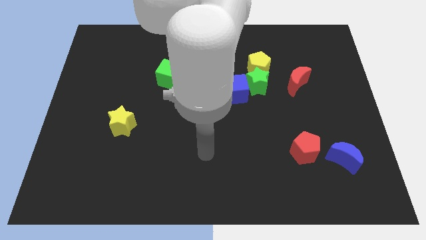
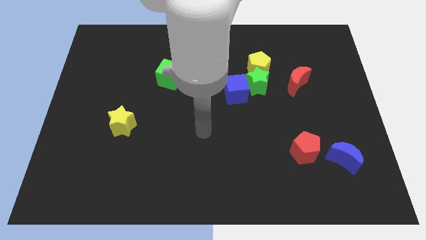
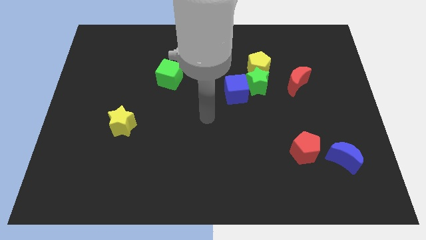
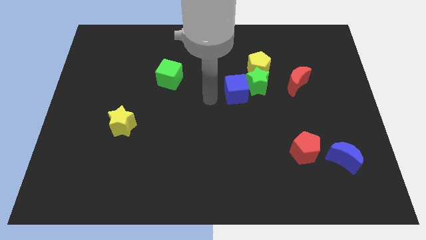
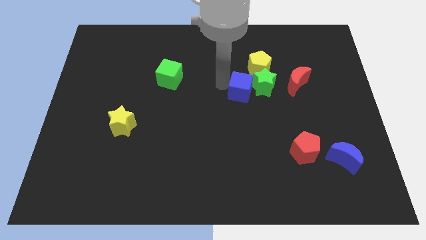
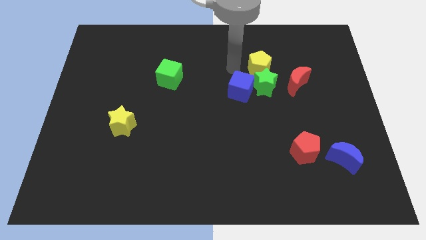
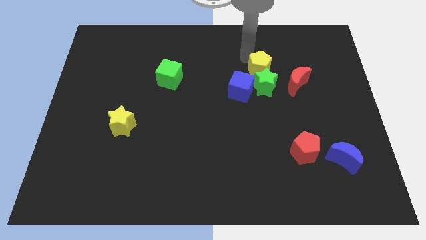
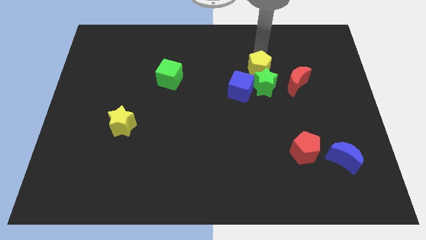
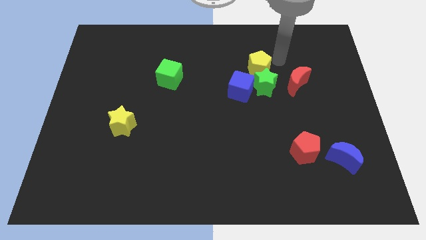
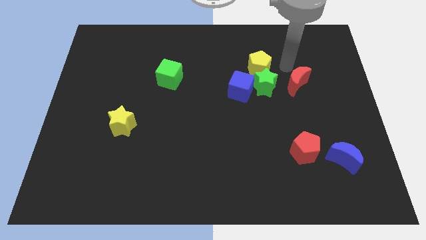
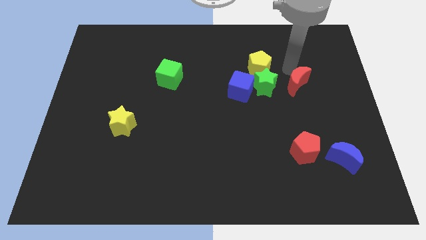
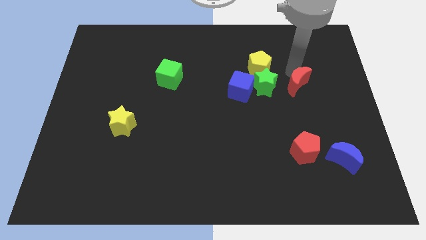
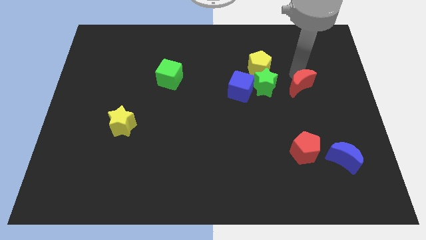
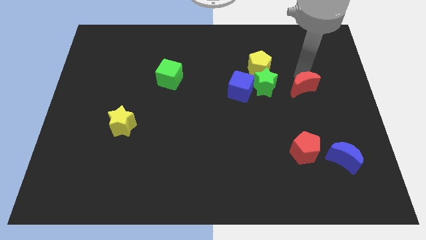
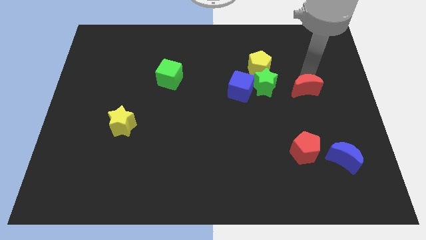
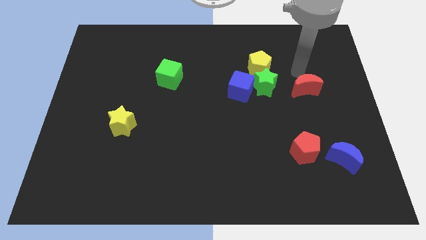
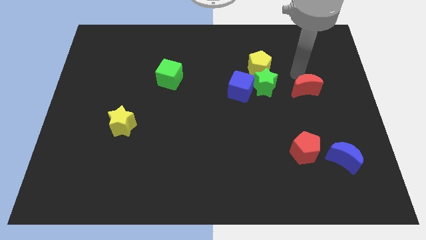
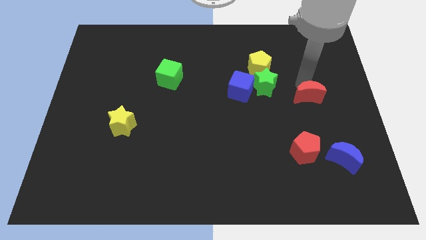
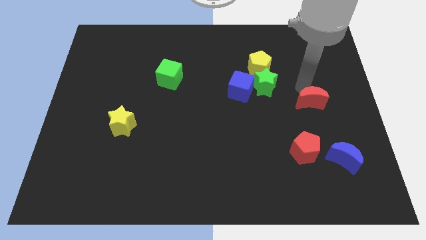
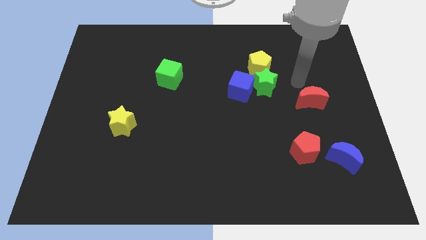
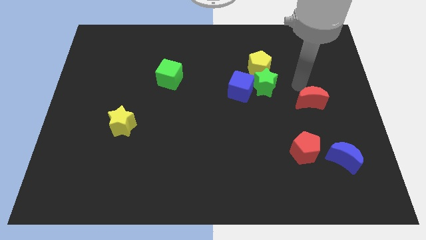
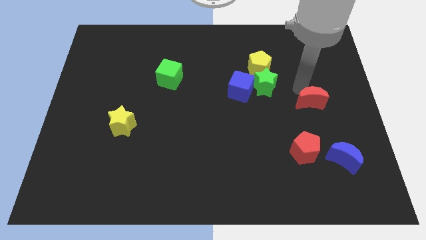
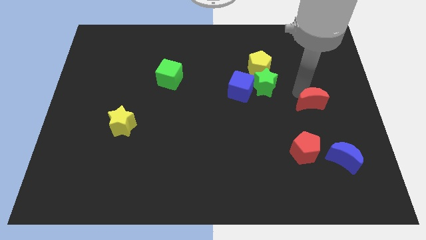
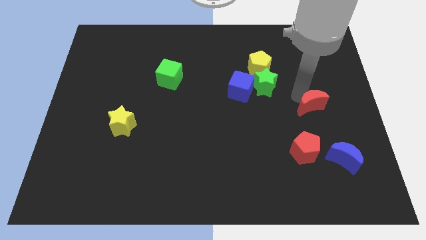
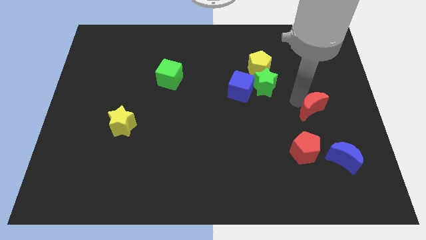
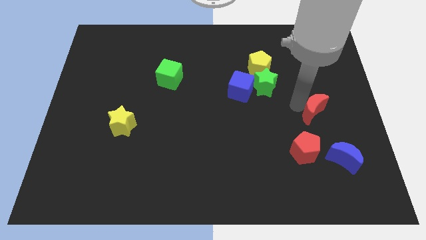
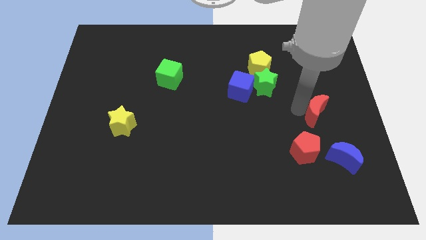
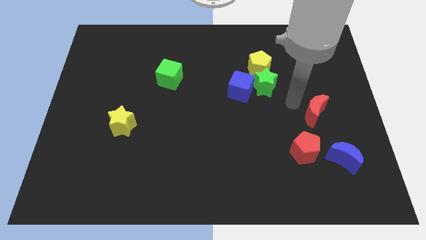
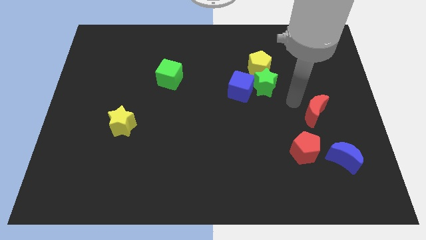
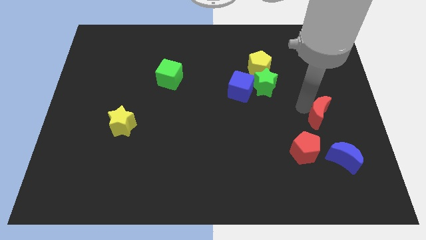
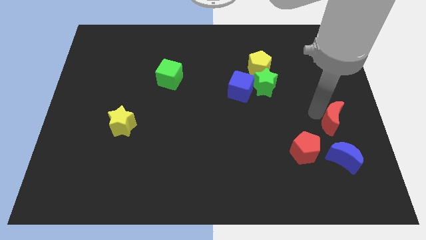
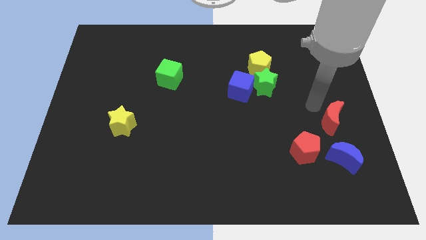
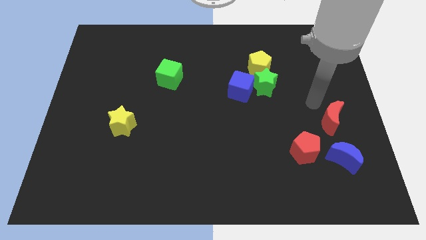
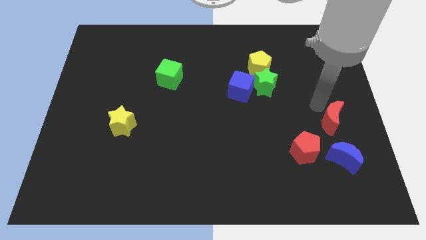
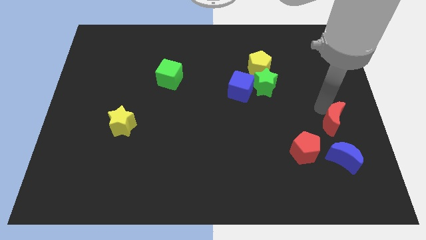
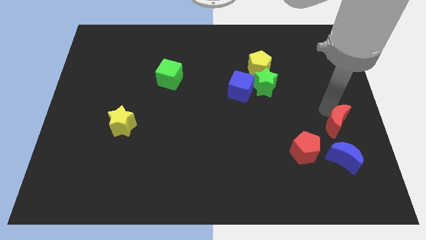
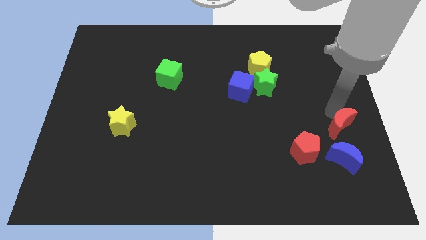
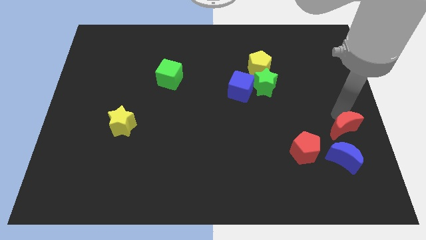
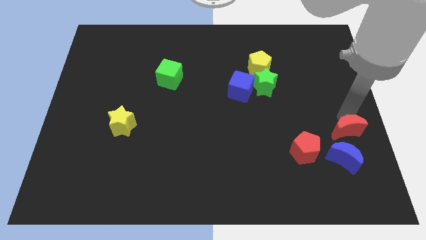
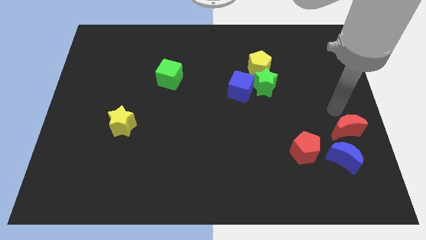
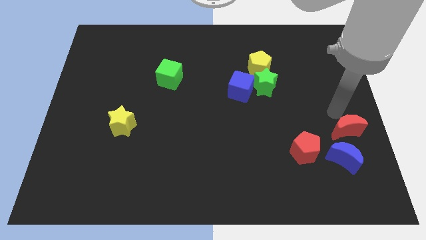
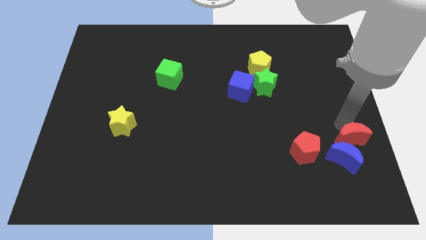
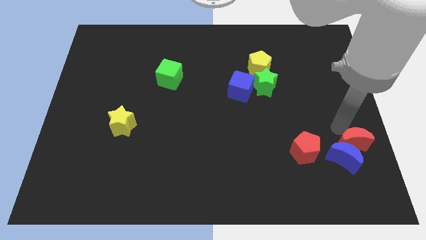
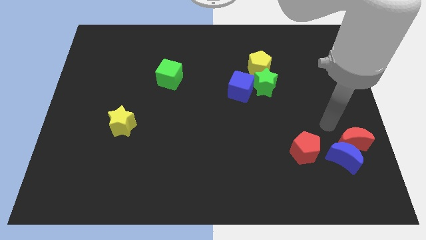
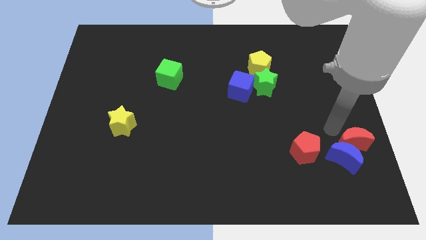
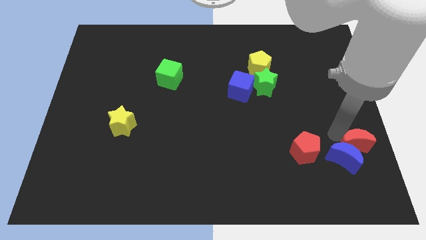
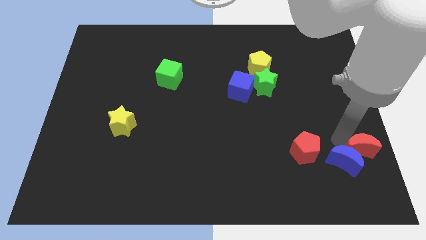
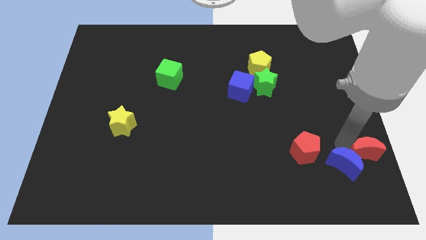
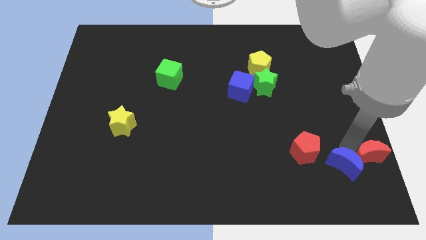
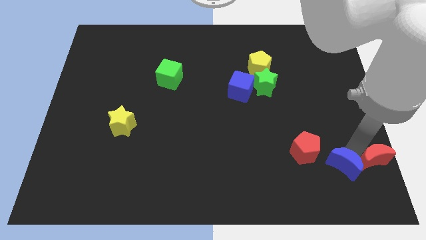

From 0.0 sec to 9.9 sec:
move the red moon to the bottom right of the board

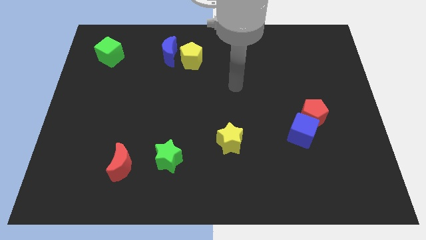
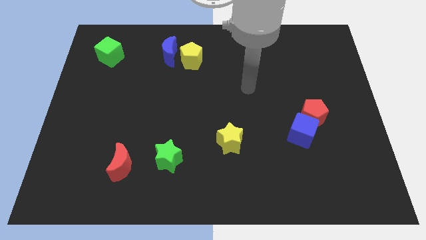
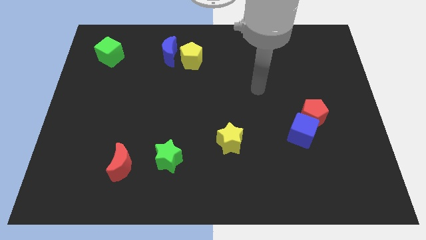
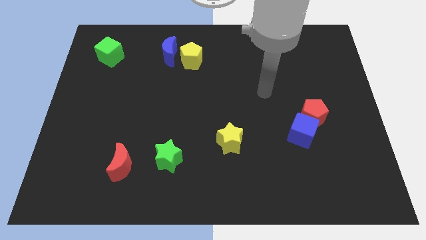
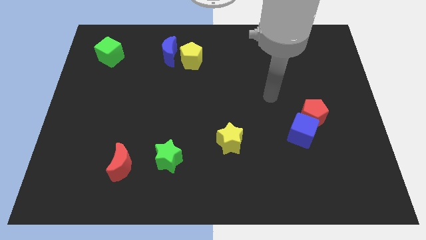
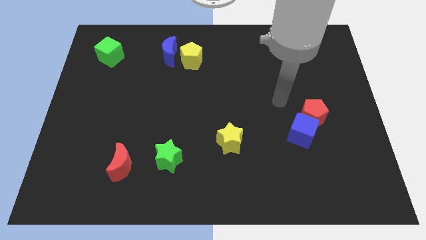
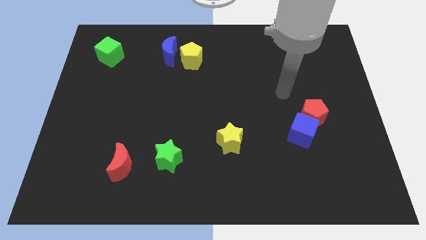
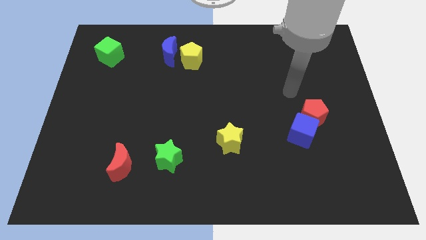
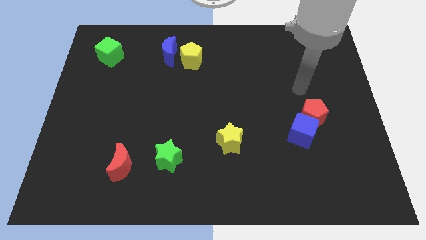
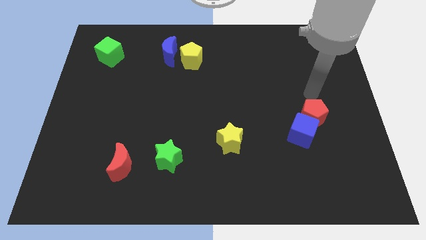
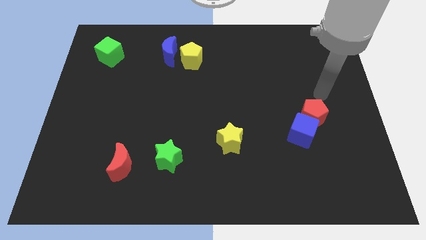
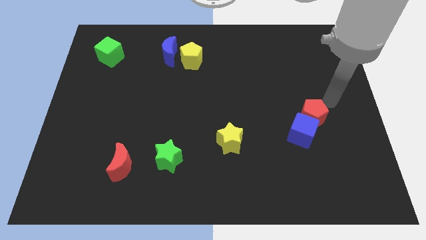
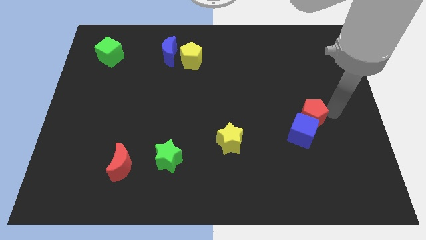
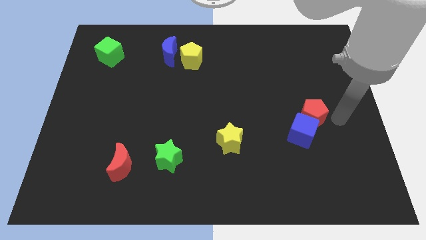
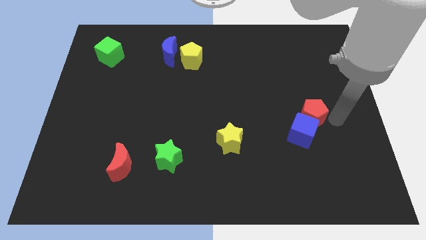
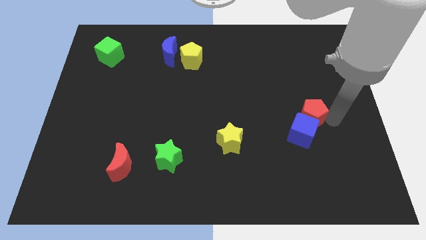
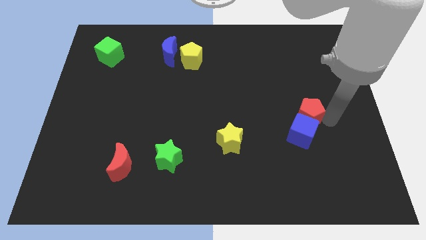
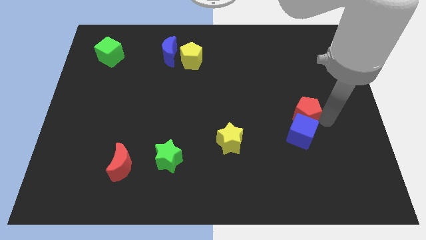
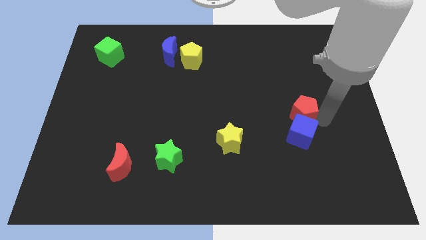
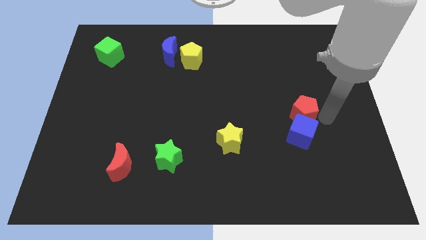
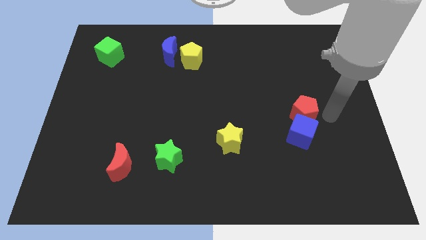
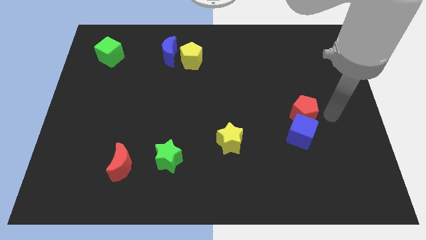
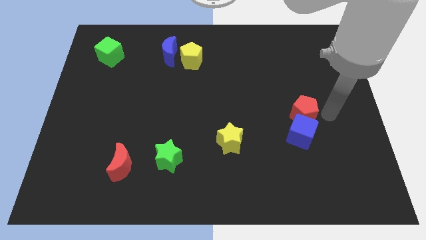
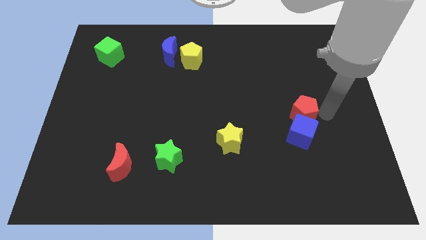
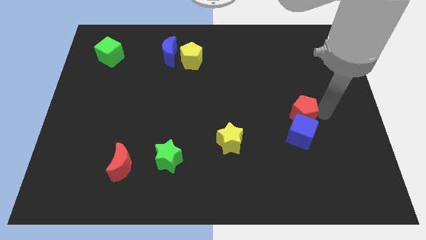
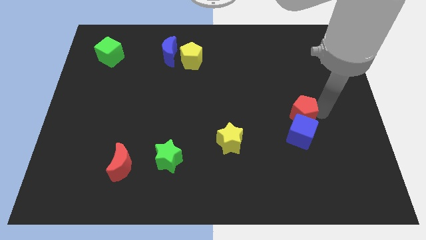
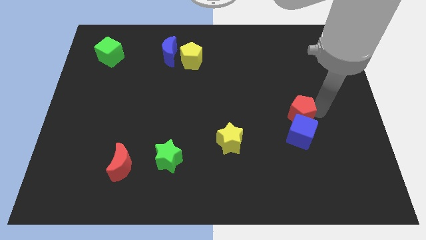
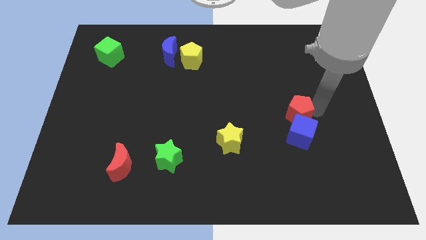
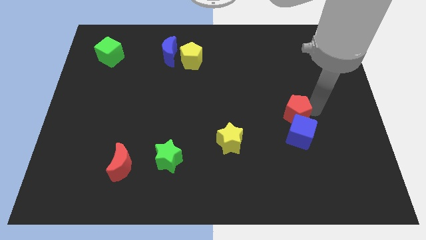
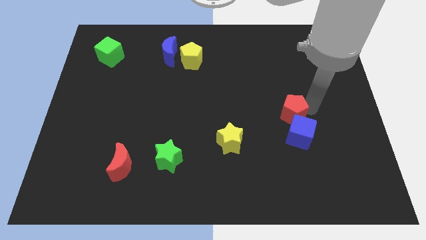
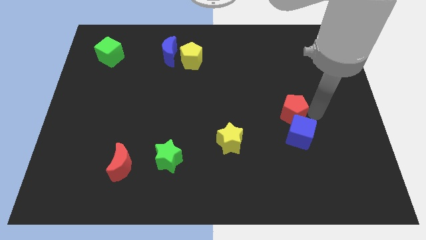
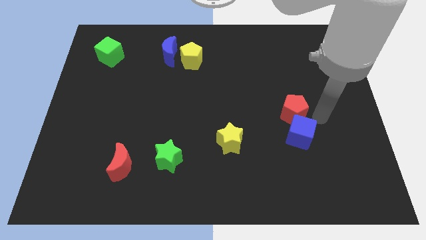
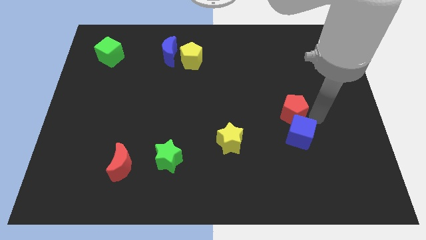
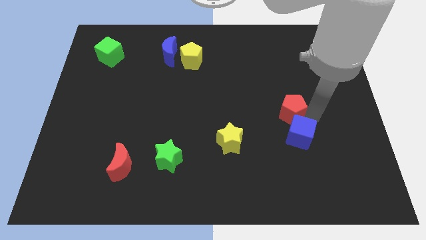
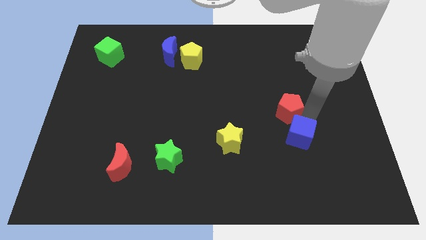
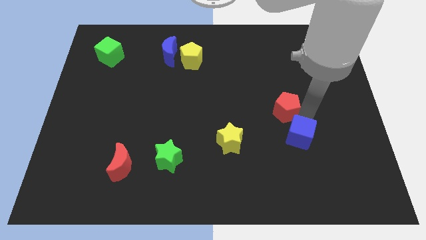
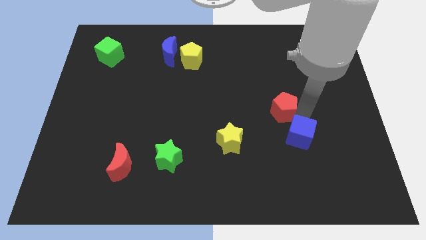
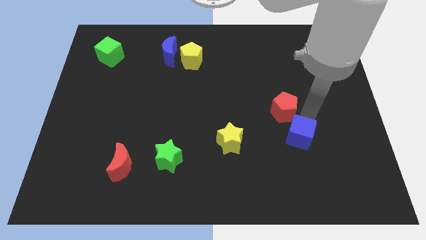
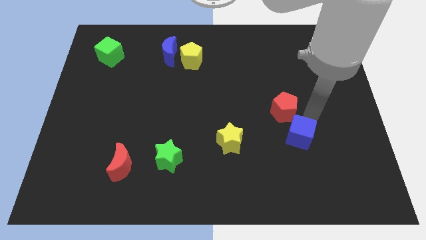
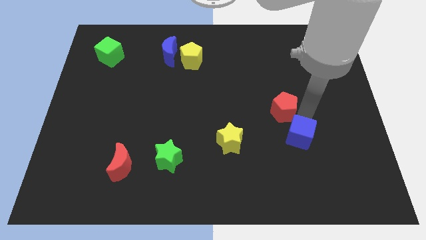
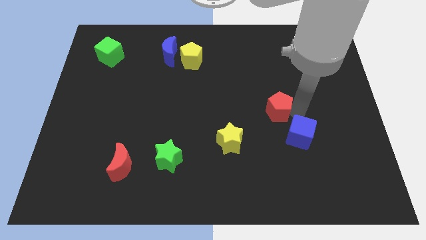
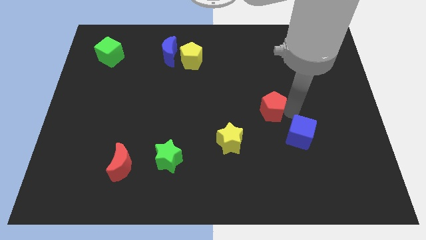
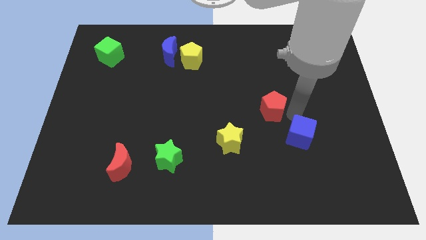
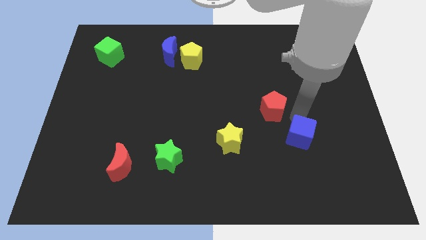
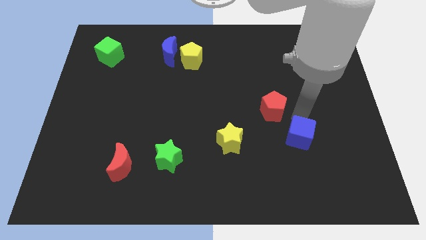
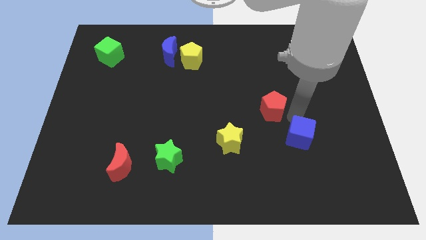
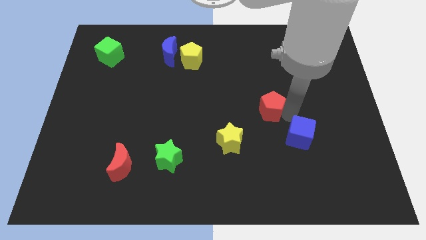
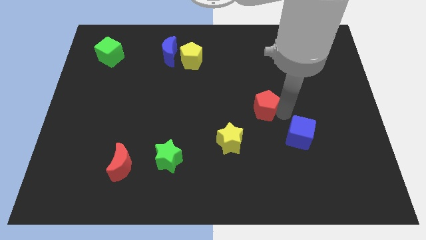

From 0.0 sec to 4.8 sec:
move the red pentagon to the middle of the board
